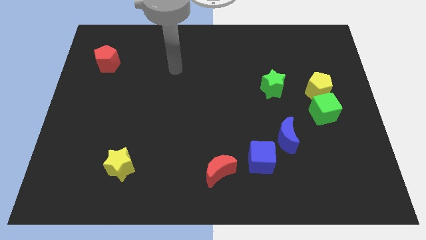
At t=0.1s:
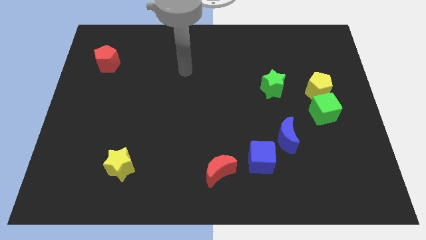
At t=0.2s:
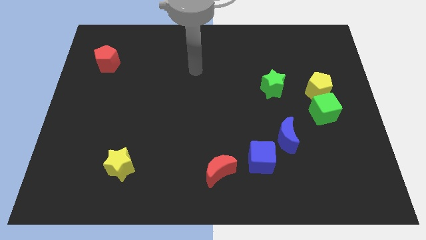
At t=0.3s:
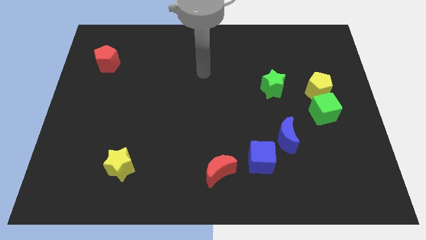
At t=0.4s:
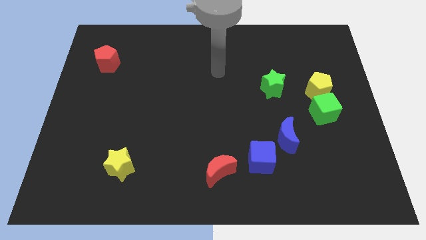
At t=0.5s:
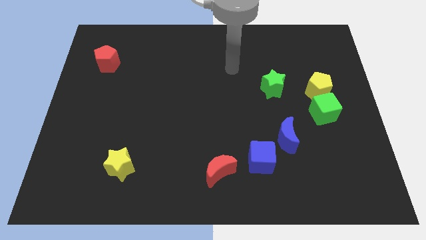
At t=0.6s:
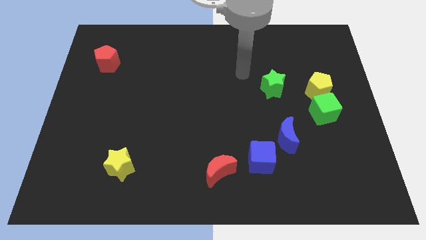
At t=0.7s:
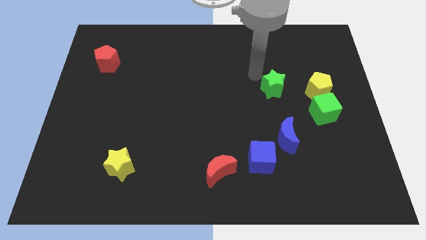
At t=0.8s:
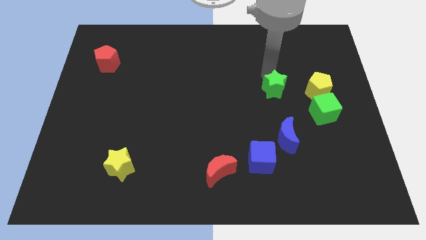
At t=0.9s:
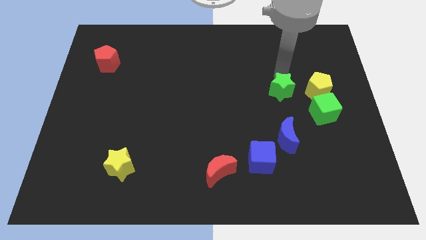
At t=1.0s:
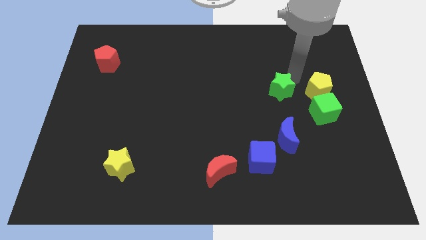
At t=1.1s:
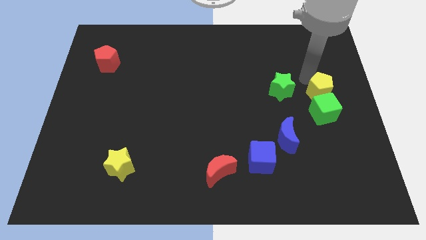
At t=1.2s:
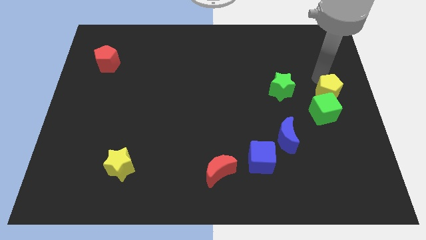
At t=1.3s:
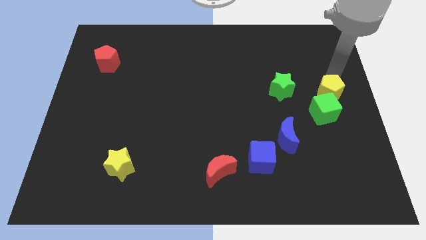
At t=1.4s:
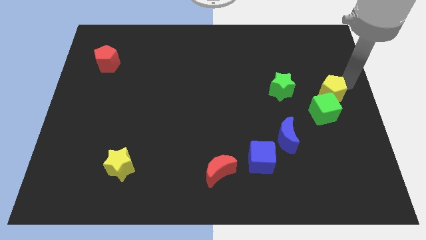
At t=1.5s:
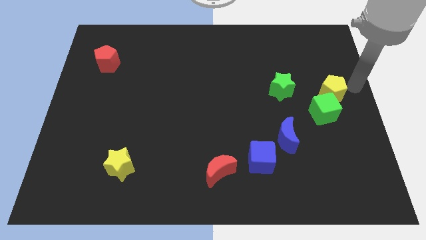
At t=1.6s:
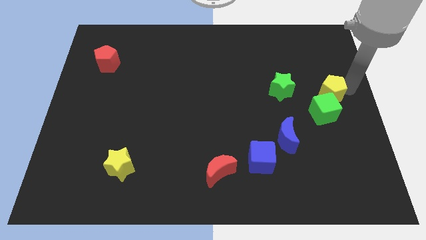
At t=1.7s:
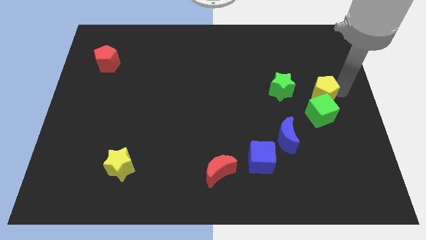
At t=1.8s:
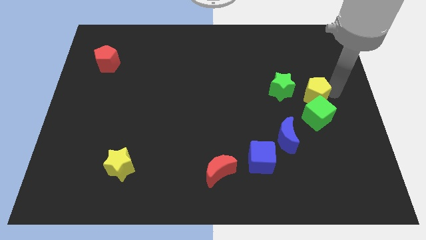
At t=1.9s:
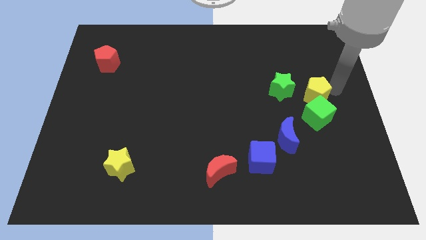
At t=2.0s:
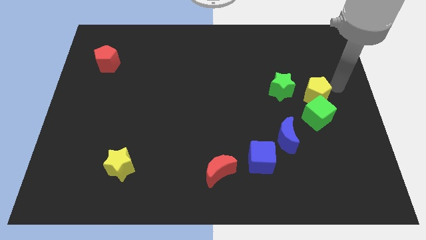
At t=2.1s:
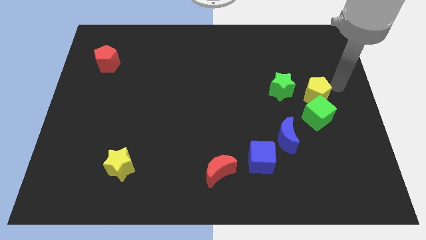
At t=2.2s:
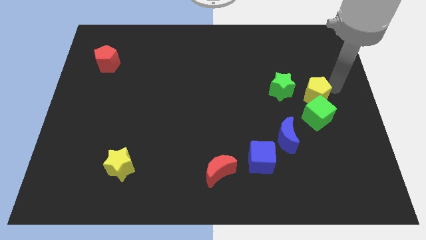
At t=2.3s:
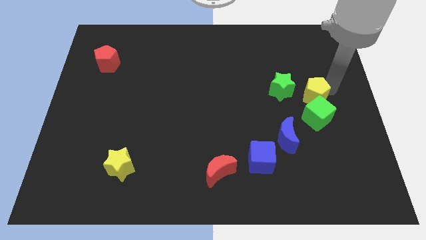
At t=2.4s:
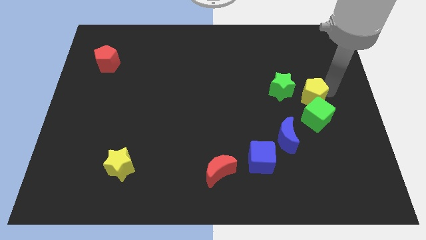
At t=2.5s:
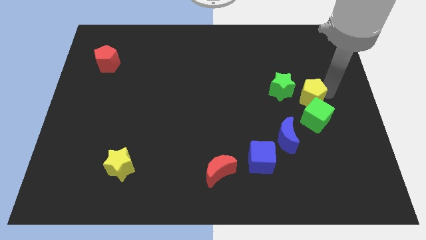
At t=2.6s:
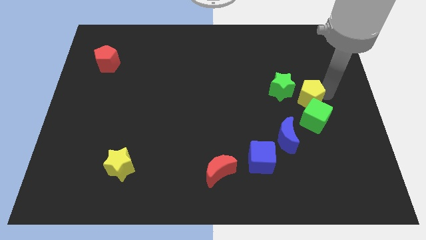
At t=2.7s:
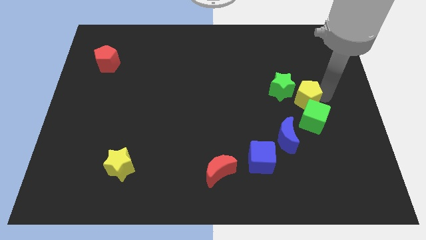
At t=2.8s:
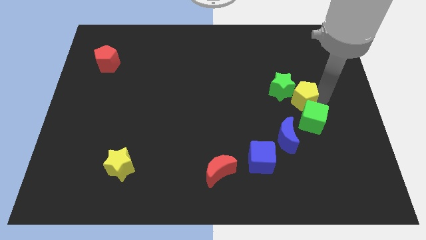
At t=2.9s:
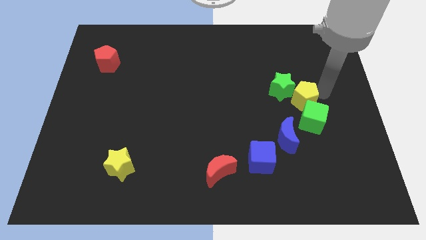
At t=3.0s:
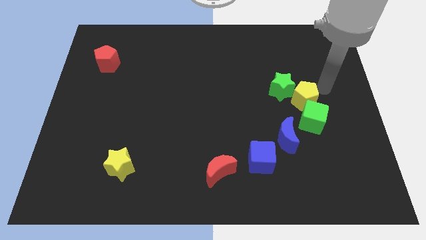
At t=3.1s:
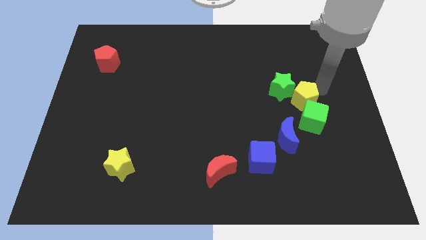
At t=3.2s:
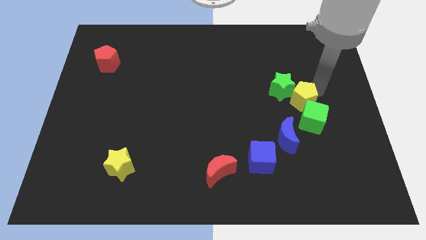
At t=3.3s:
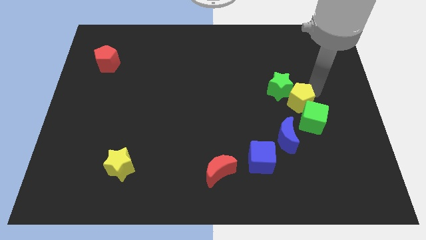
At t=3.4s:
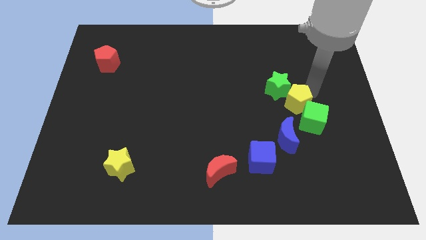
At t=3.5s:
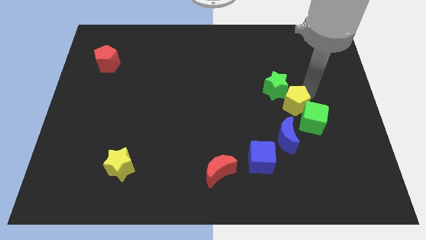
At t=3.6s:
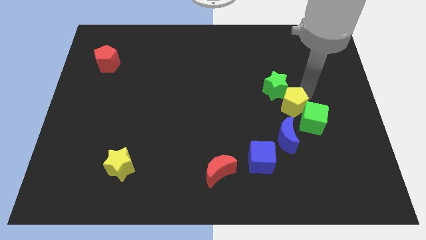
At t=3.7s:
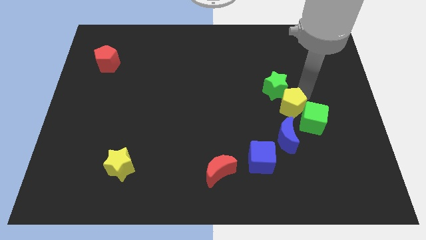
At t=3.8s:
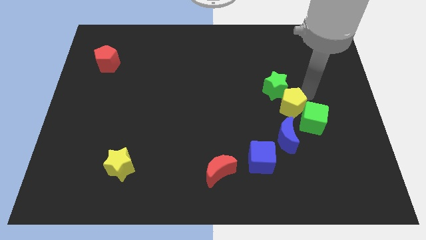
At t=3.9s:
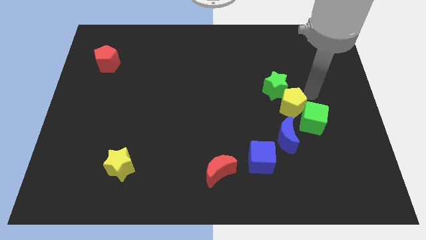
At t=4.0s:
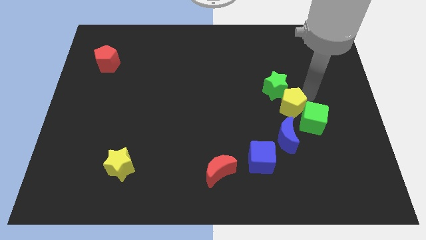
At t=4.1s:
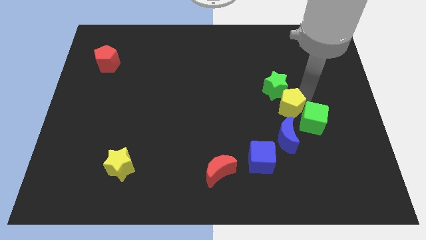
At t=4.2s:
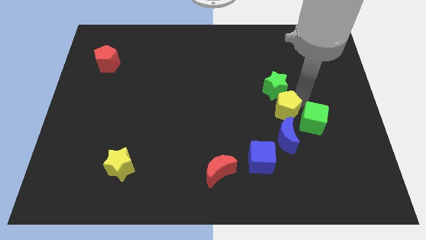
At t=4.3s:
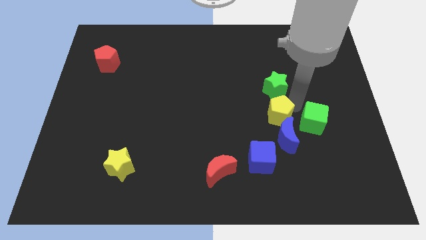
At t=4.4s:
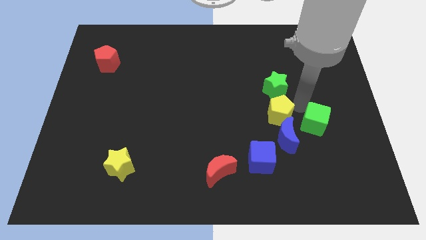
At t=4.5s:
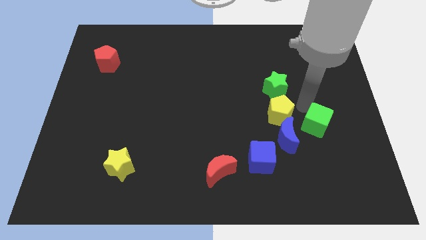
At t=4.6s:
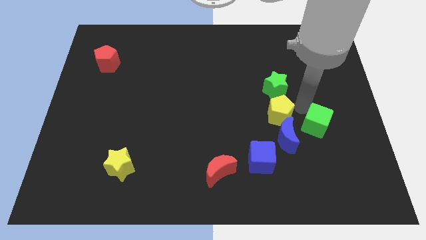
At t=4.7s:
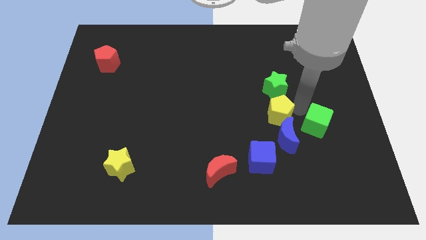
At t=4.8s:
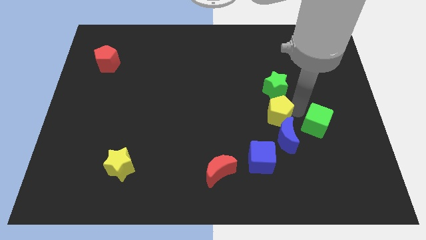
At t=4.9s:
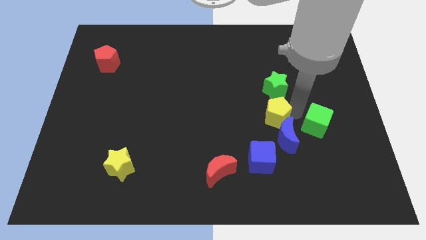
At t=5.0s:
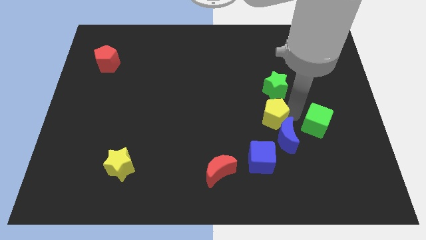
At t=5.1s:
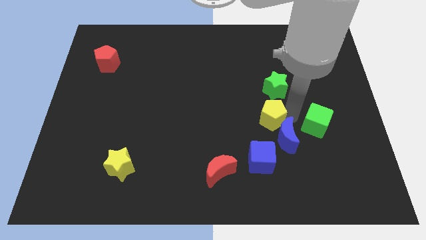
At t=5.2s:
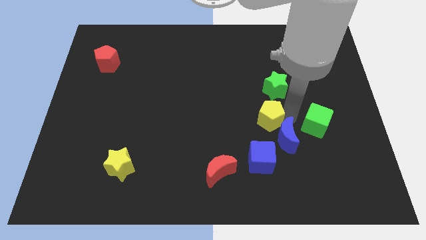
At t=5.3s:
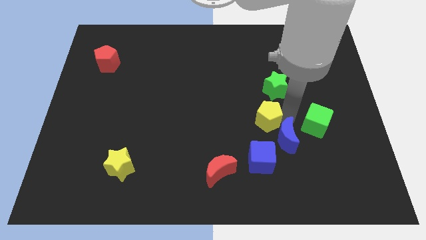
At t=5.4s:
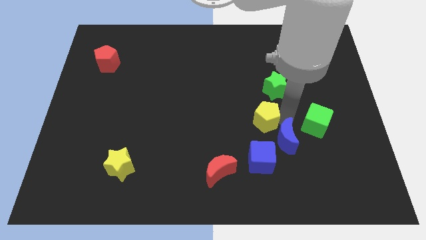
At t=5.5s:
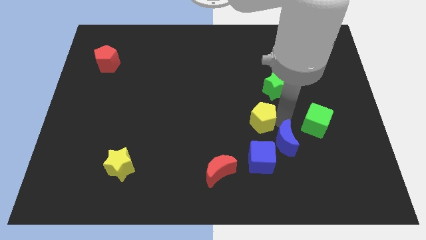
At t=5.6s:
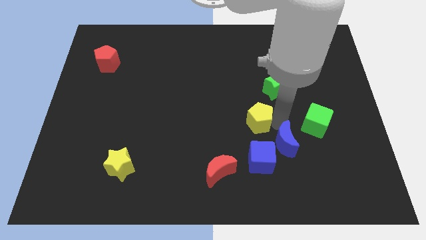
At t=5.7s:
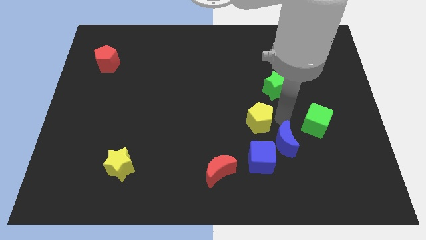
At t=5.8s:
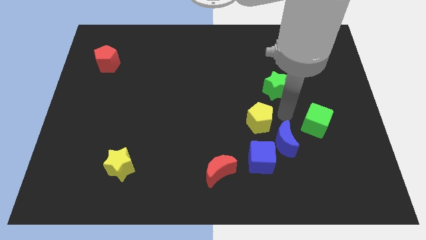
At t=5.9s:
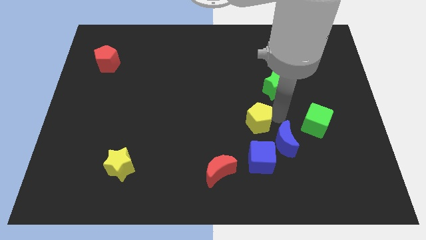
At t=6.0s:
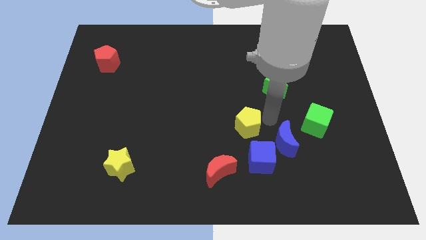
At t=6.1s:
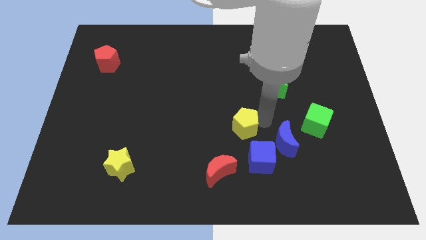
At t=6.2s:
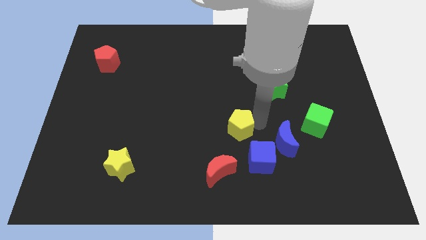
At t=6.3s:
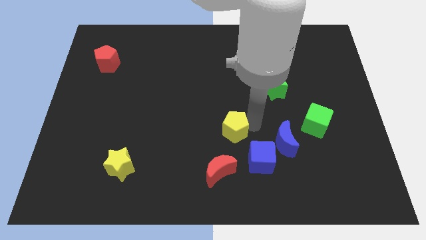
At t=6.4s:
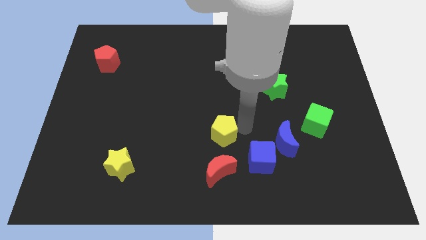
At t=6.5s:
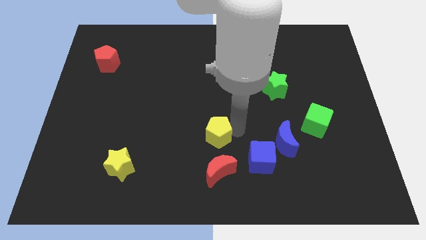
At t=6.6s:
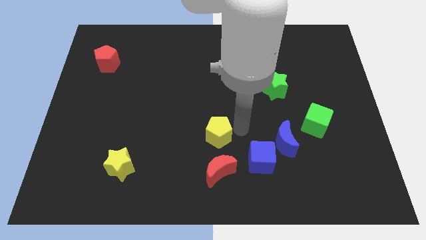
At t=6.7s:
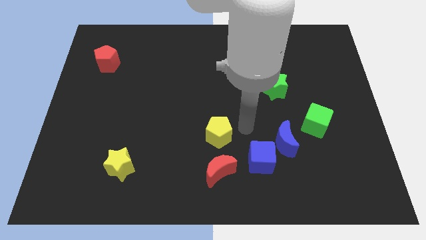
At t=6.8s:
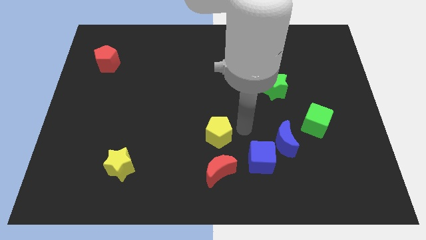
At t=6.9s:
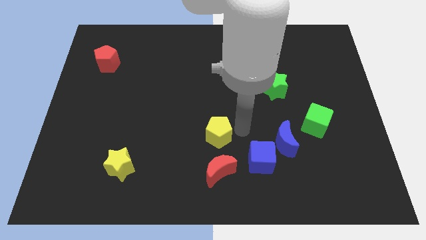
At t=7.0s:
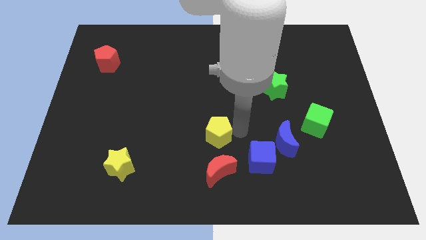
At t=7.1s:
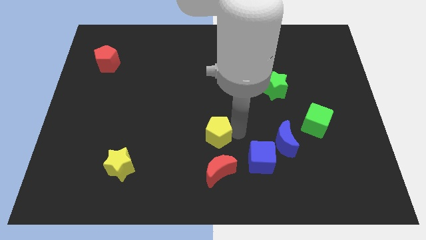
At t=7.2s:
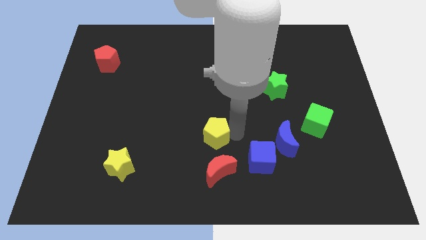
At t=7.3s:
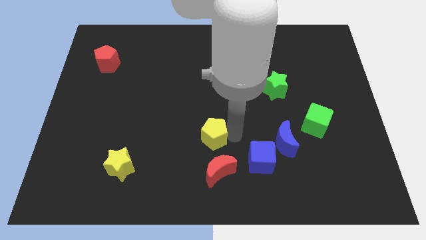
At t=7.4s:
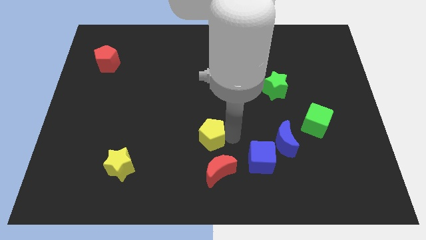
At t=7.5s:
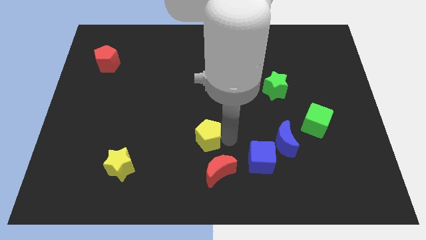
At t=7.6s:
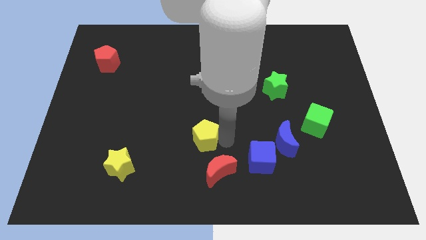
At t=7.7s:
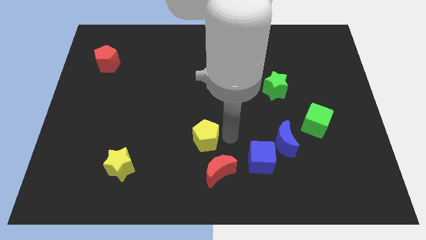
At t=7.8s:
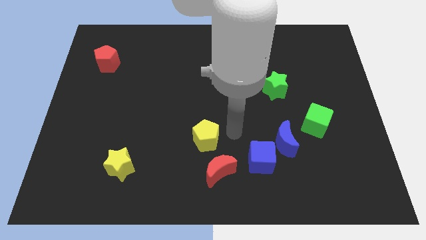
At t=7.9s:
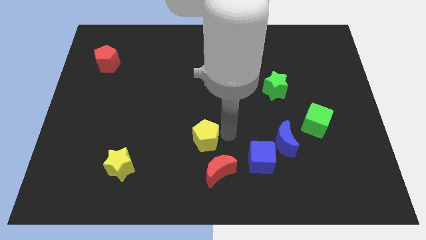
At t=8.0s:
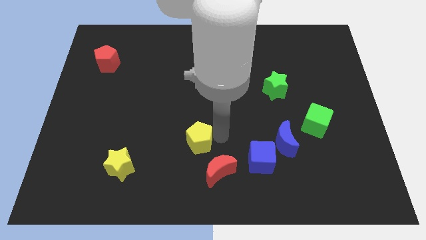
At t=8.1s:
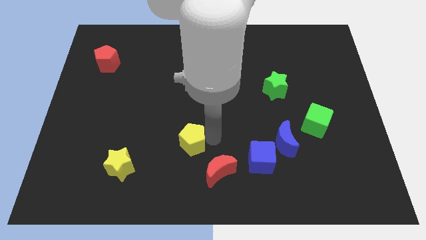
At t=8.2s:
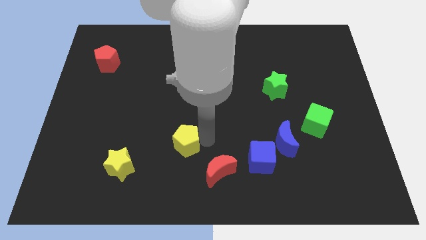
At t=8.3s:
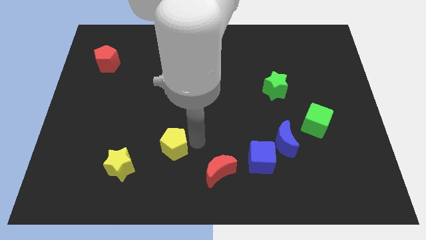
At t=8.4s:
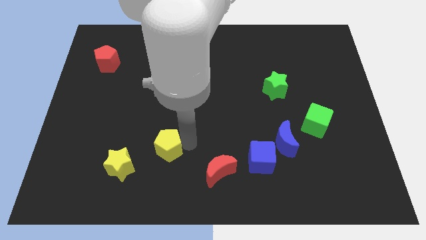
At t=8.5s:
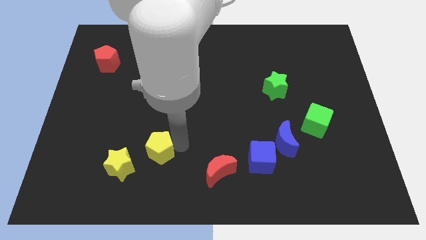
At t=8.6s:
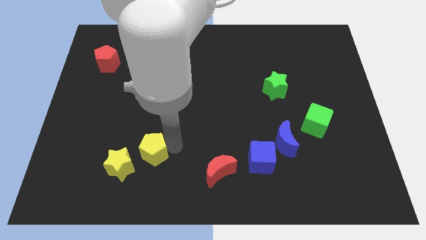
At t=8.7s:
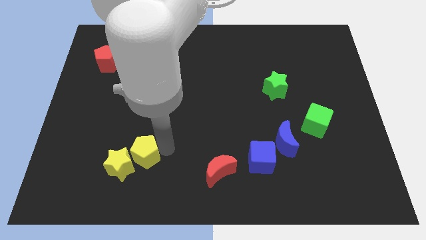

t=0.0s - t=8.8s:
push the yellow pentagon next to the yellow star
